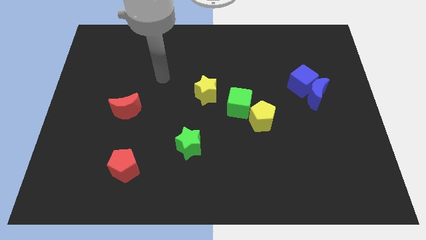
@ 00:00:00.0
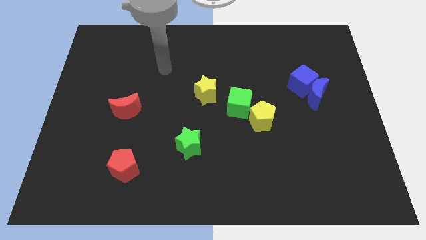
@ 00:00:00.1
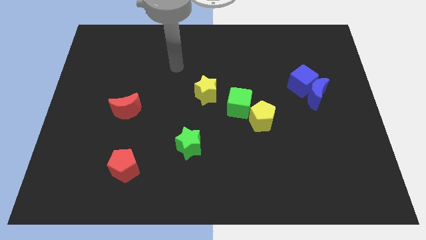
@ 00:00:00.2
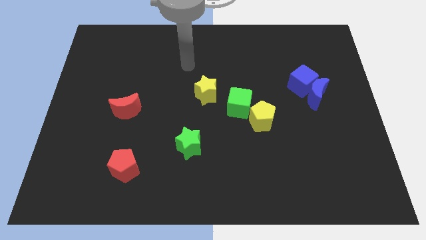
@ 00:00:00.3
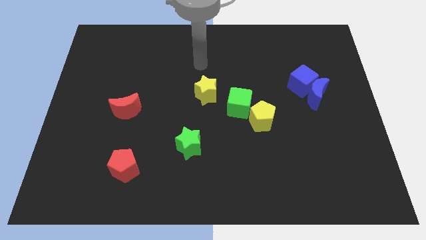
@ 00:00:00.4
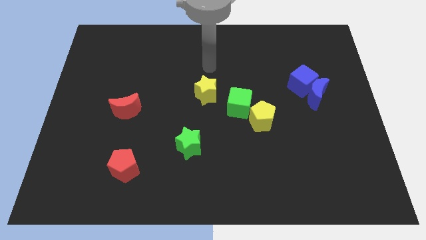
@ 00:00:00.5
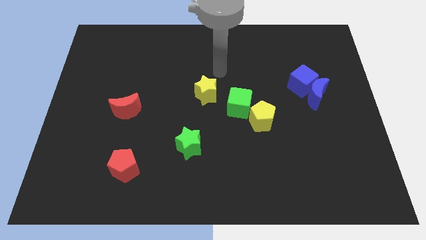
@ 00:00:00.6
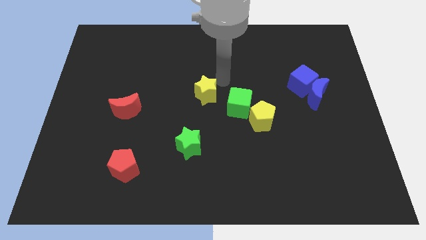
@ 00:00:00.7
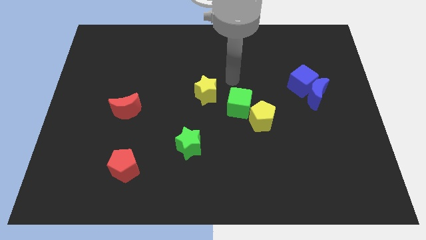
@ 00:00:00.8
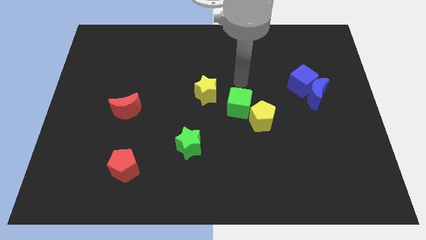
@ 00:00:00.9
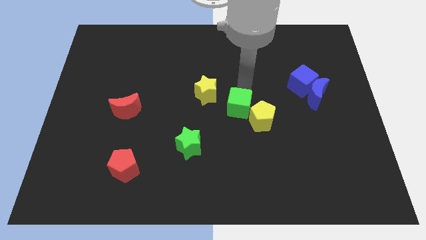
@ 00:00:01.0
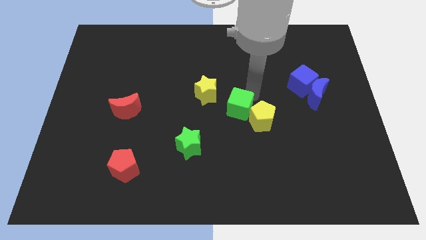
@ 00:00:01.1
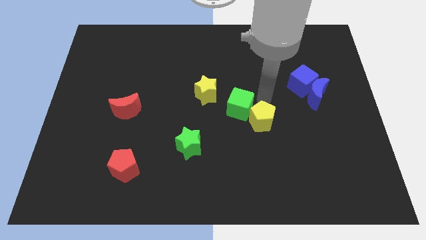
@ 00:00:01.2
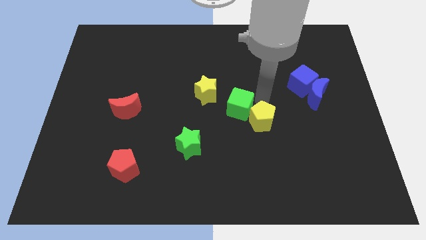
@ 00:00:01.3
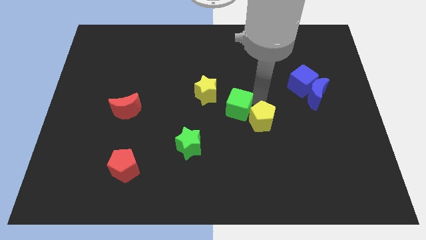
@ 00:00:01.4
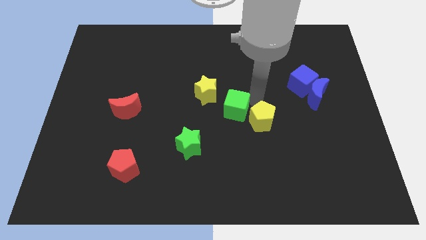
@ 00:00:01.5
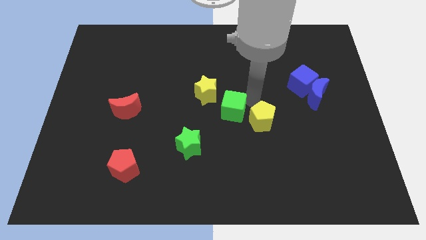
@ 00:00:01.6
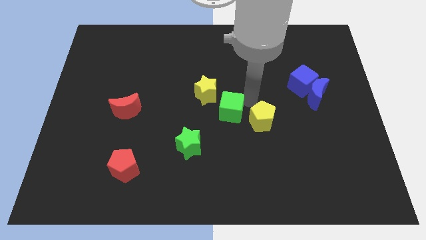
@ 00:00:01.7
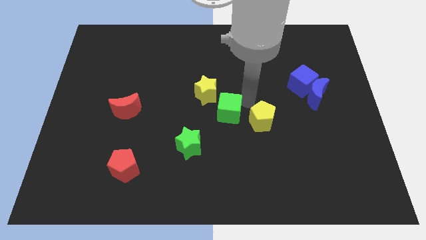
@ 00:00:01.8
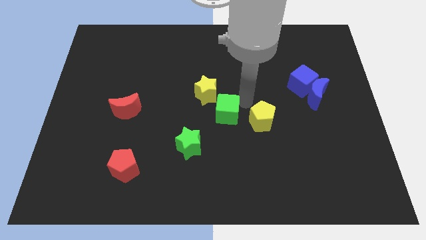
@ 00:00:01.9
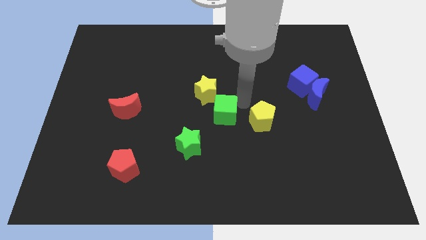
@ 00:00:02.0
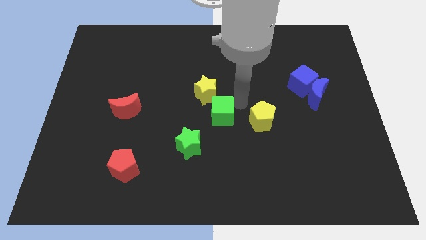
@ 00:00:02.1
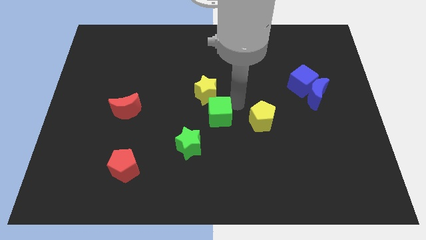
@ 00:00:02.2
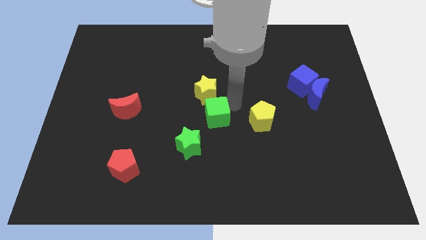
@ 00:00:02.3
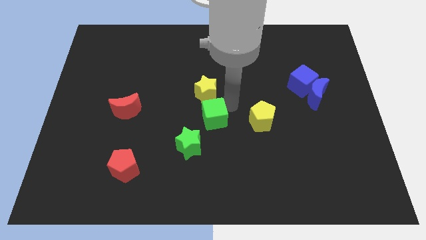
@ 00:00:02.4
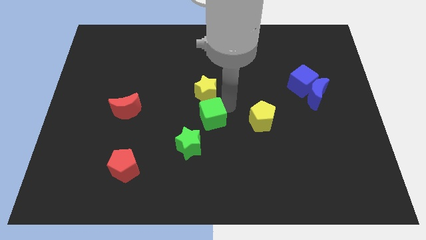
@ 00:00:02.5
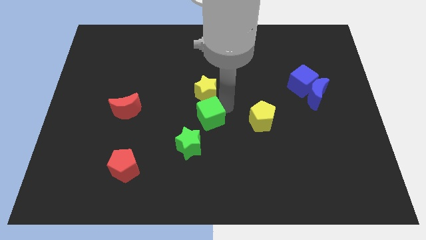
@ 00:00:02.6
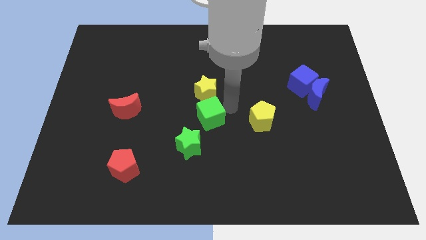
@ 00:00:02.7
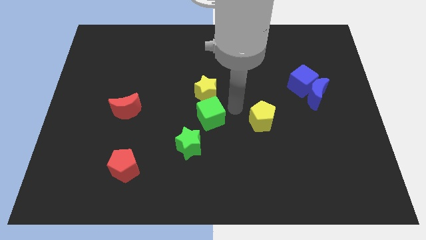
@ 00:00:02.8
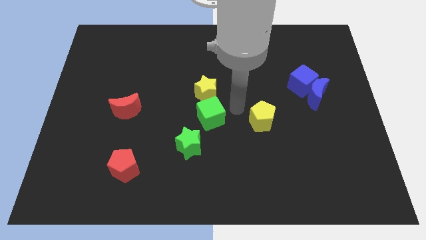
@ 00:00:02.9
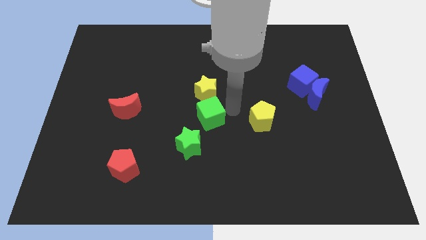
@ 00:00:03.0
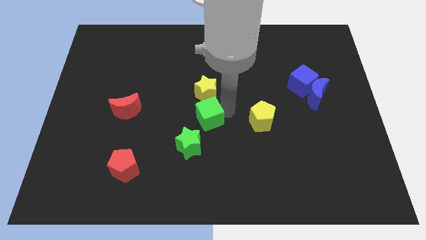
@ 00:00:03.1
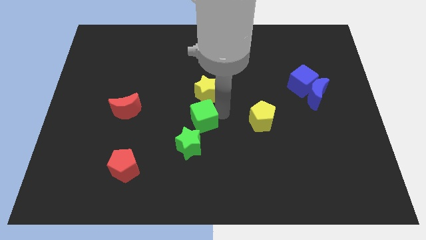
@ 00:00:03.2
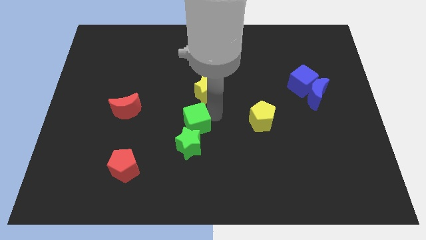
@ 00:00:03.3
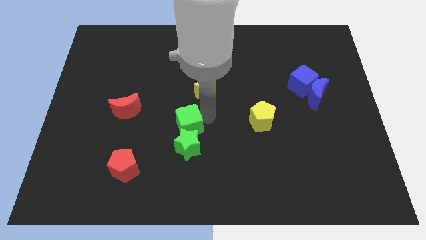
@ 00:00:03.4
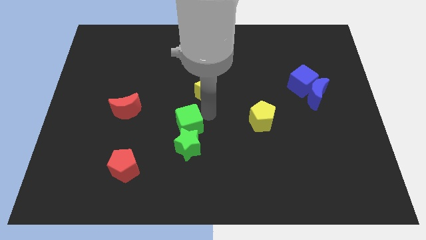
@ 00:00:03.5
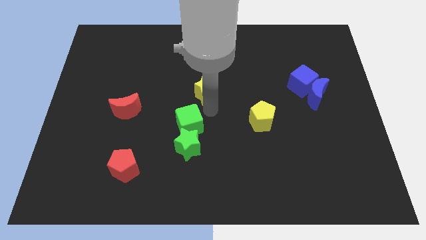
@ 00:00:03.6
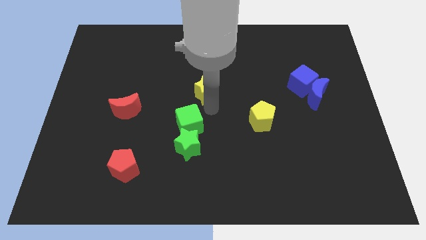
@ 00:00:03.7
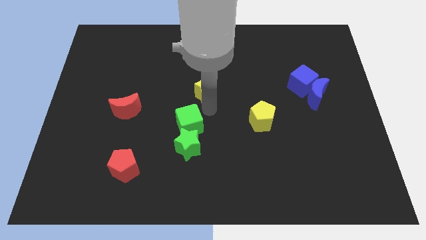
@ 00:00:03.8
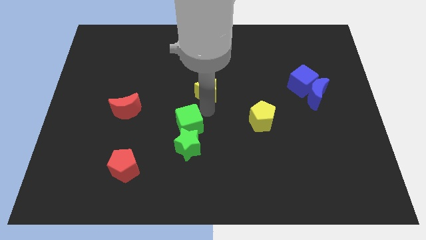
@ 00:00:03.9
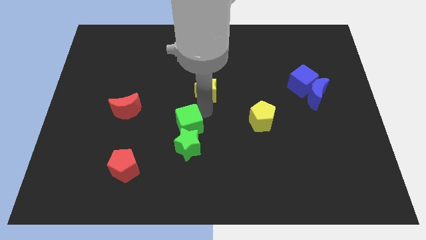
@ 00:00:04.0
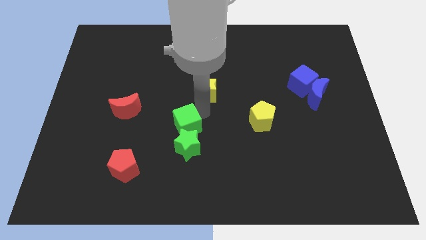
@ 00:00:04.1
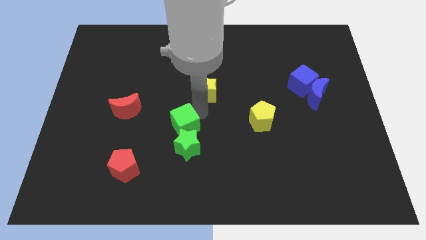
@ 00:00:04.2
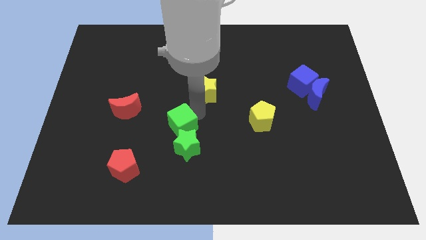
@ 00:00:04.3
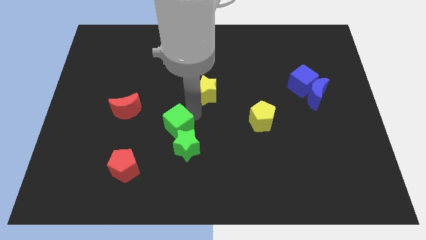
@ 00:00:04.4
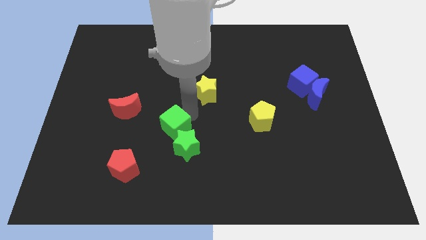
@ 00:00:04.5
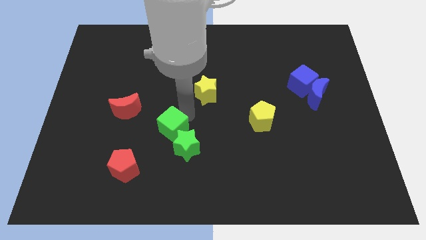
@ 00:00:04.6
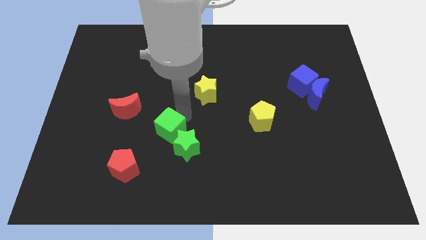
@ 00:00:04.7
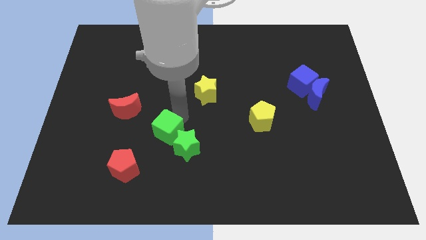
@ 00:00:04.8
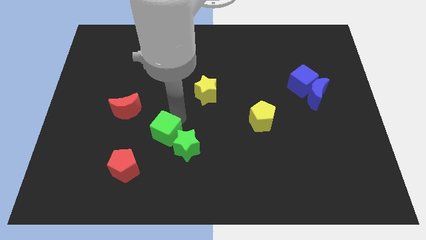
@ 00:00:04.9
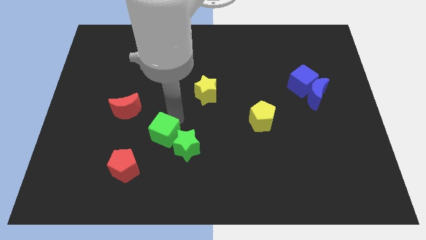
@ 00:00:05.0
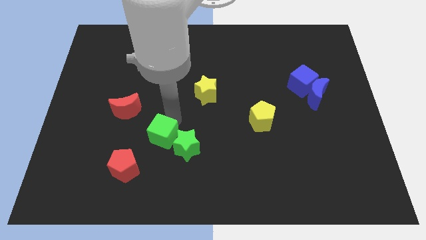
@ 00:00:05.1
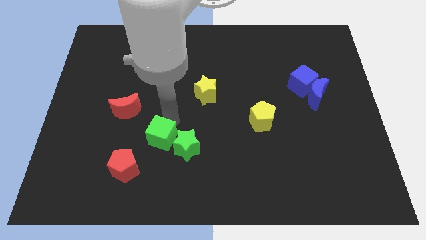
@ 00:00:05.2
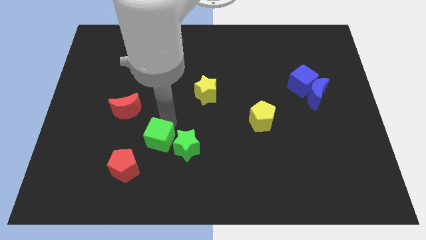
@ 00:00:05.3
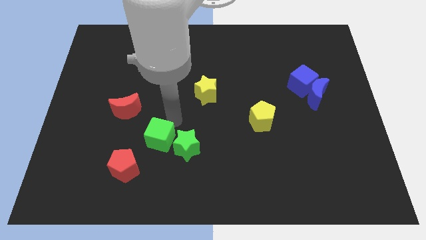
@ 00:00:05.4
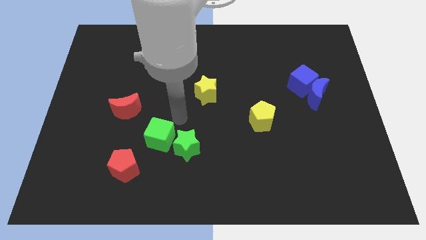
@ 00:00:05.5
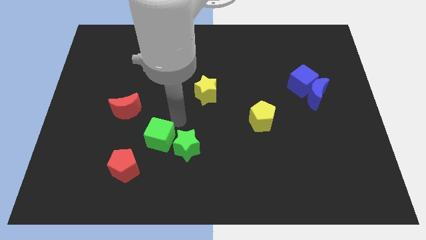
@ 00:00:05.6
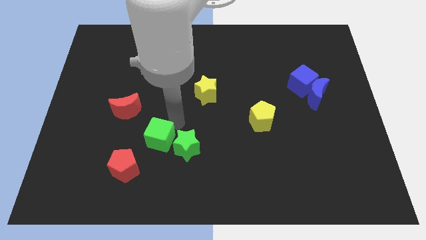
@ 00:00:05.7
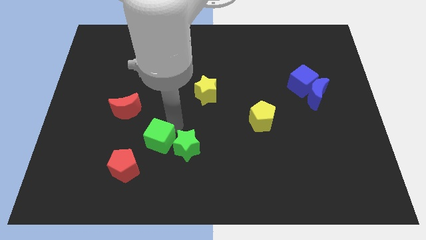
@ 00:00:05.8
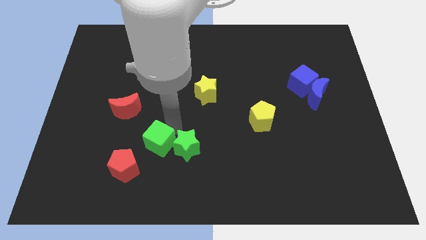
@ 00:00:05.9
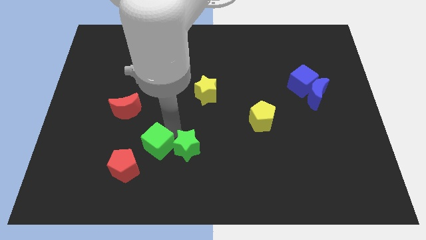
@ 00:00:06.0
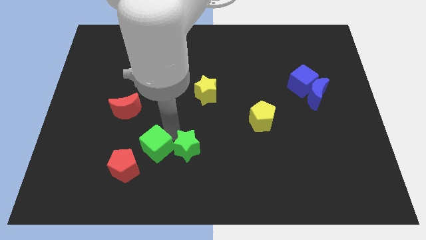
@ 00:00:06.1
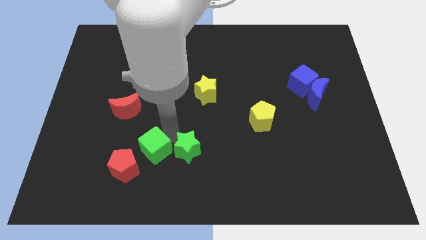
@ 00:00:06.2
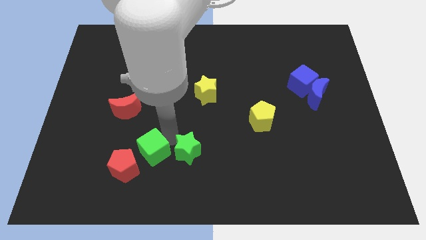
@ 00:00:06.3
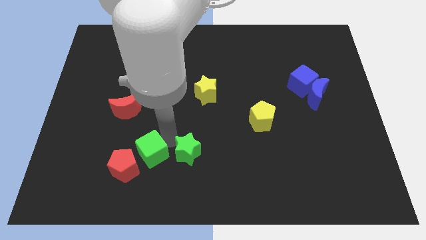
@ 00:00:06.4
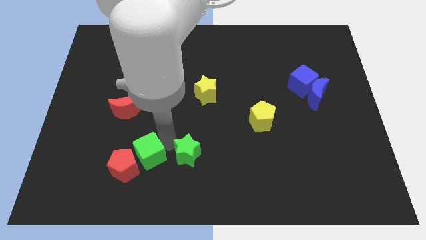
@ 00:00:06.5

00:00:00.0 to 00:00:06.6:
put the green cube to the red pentagon
